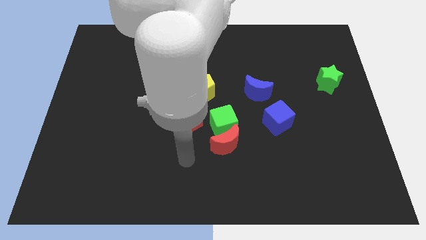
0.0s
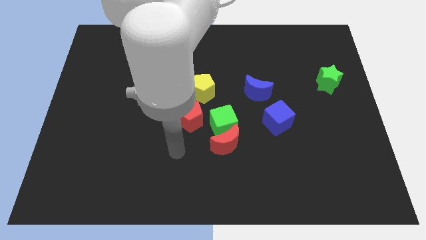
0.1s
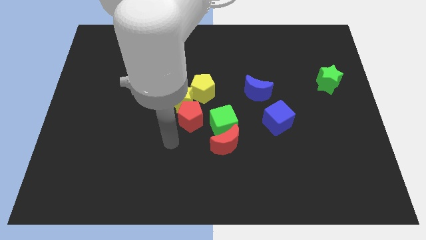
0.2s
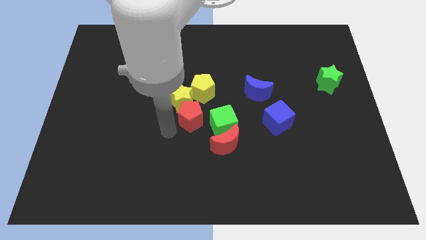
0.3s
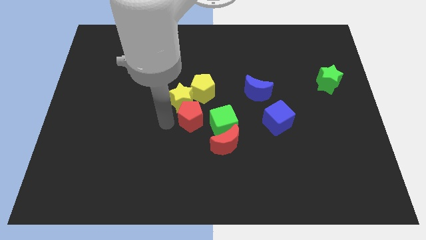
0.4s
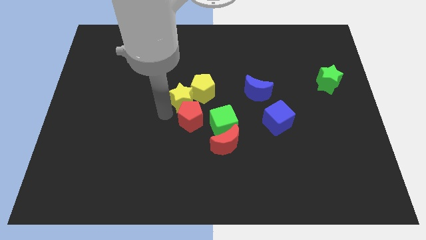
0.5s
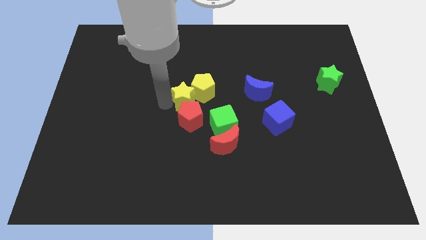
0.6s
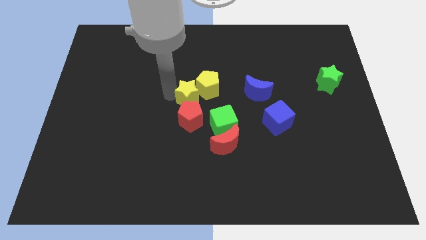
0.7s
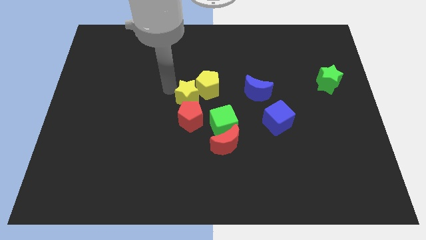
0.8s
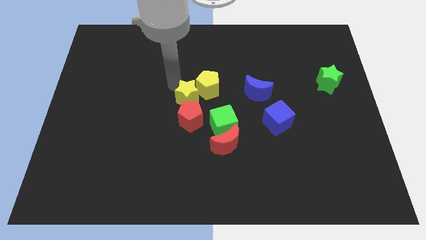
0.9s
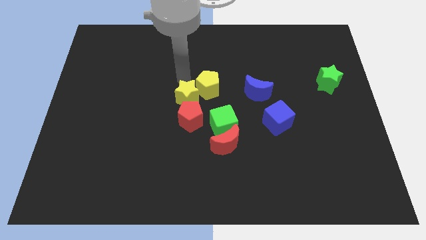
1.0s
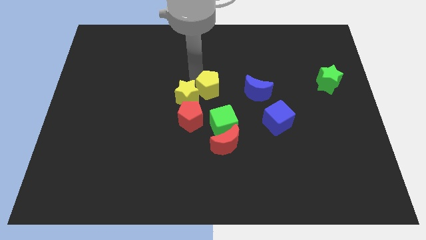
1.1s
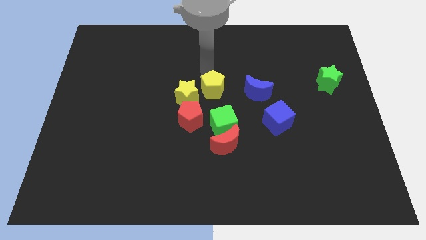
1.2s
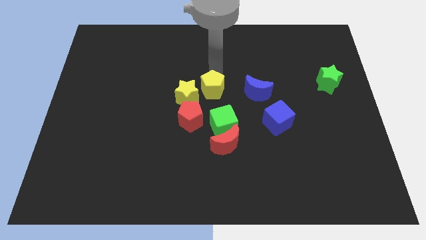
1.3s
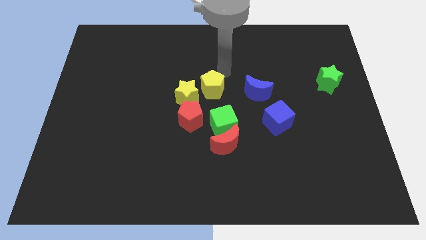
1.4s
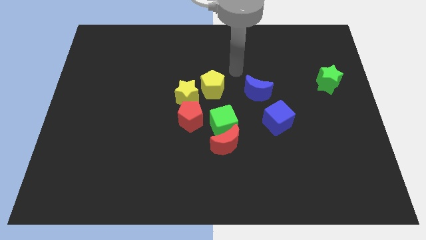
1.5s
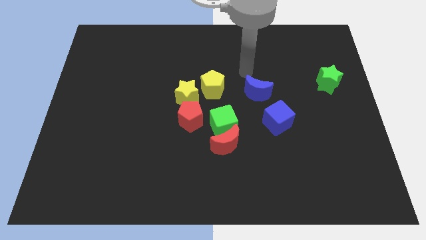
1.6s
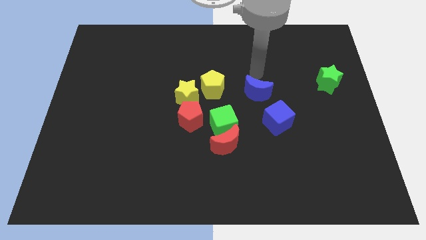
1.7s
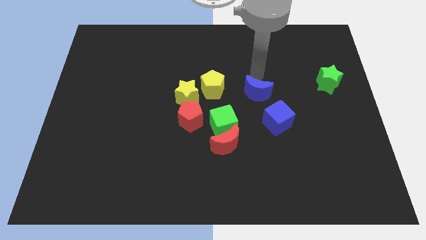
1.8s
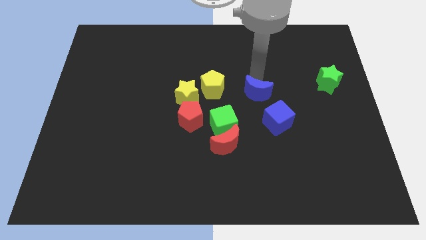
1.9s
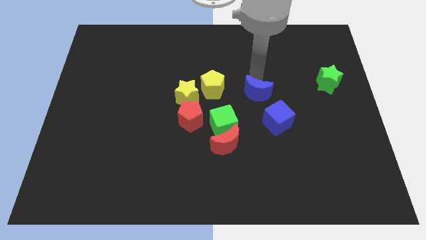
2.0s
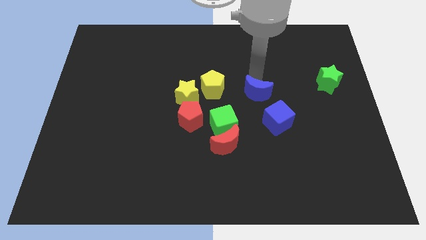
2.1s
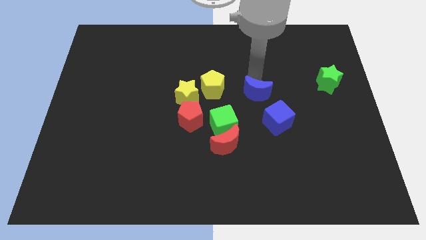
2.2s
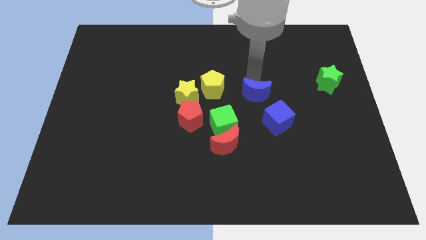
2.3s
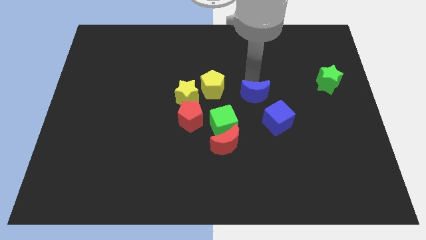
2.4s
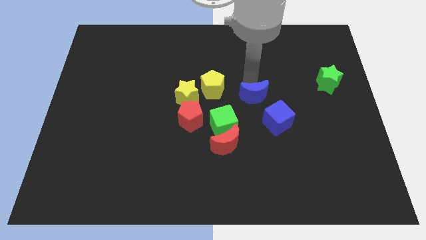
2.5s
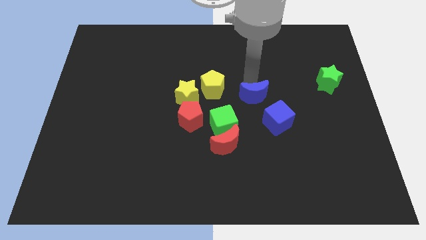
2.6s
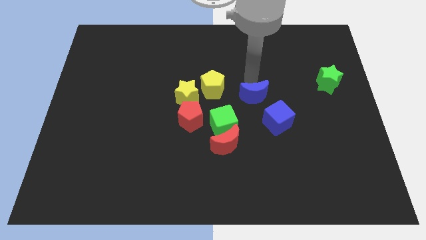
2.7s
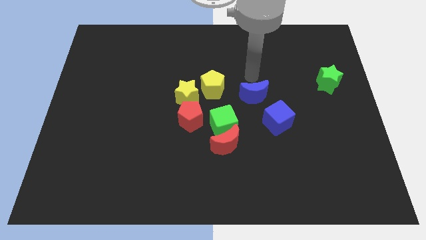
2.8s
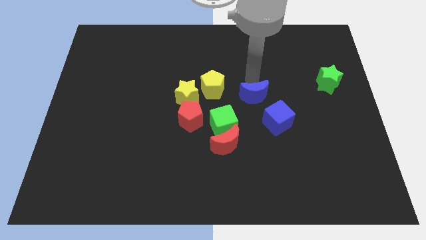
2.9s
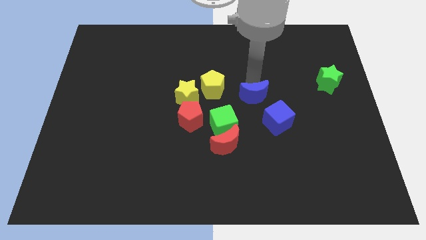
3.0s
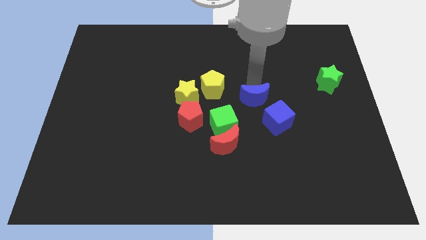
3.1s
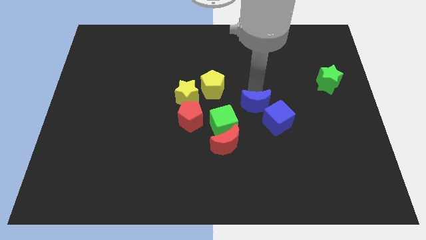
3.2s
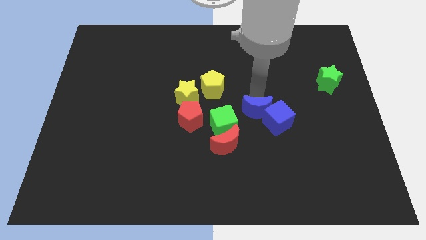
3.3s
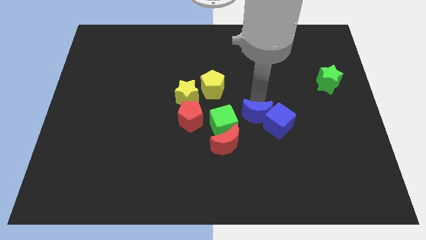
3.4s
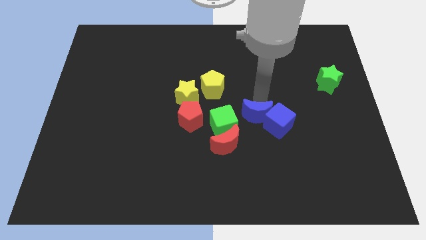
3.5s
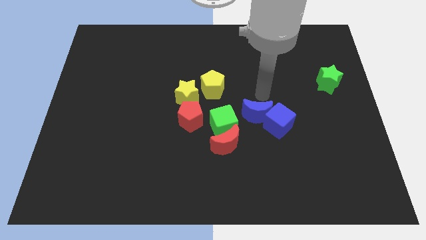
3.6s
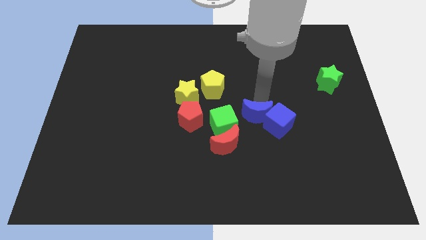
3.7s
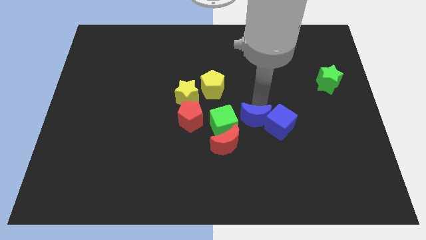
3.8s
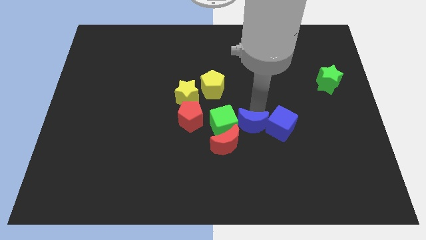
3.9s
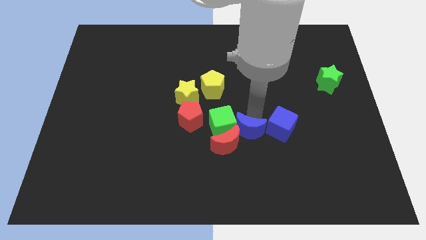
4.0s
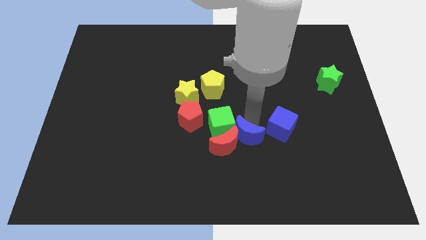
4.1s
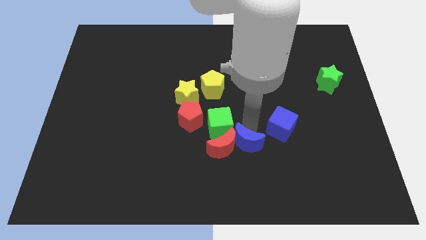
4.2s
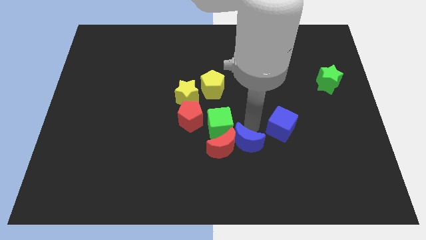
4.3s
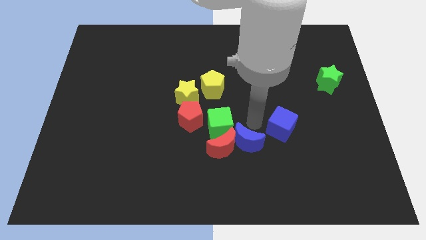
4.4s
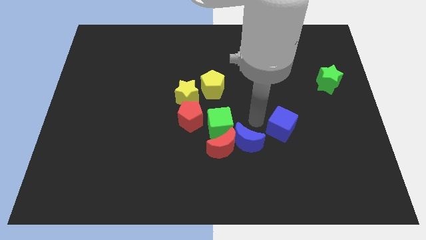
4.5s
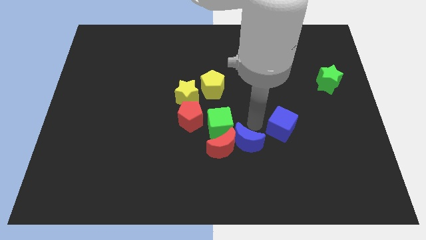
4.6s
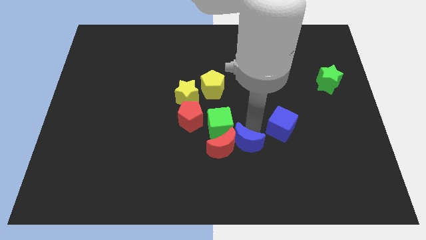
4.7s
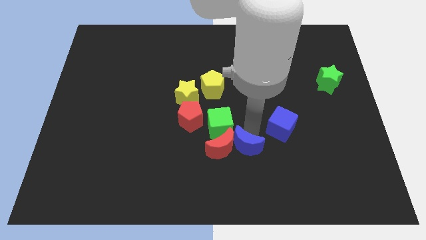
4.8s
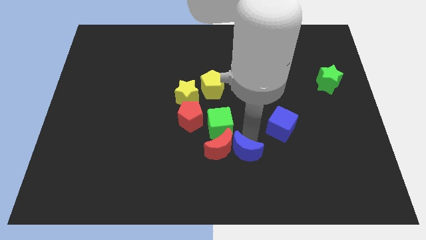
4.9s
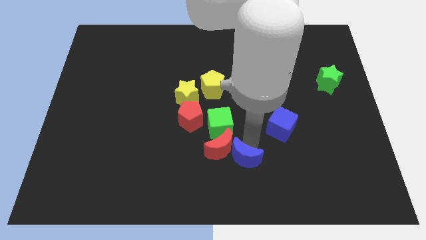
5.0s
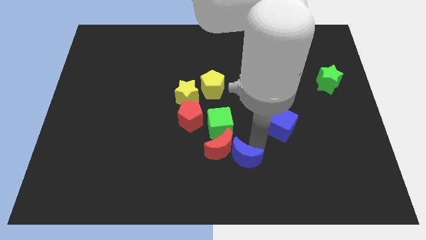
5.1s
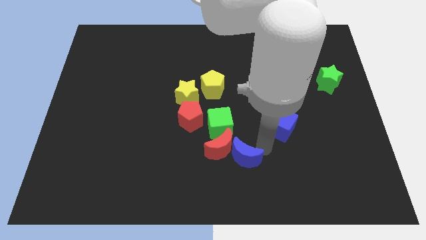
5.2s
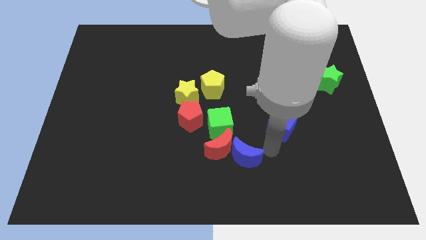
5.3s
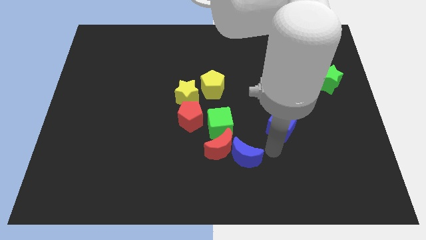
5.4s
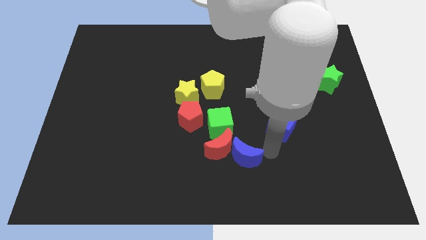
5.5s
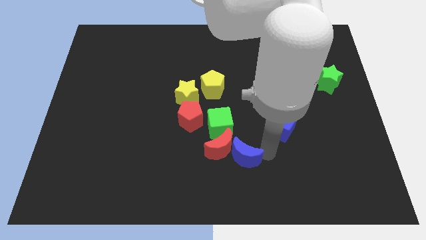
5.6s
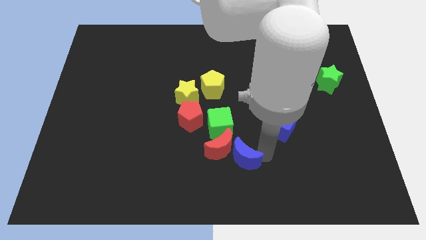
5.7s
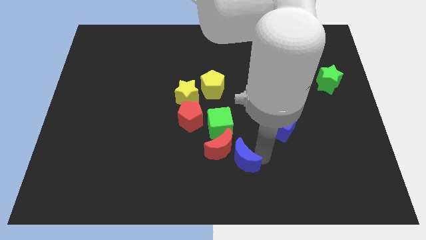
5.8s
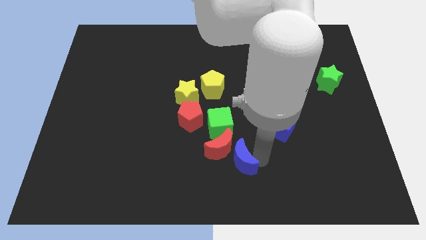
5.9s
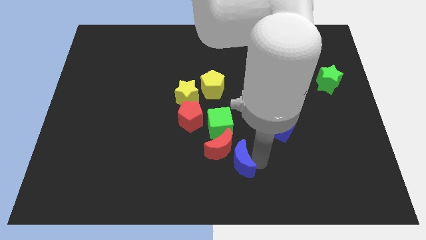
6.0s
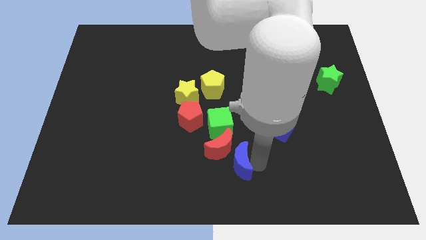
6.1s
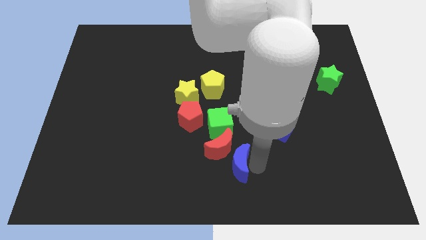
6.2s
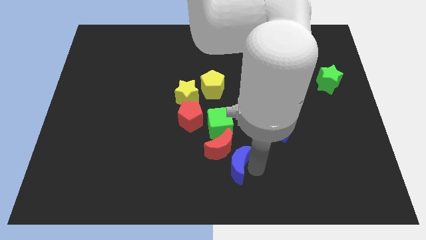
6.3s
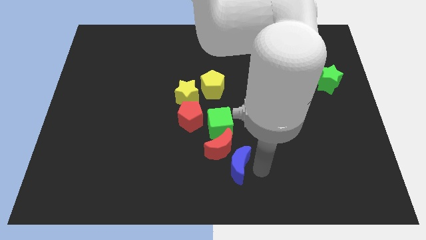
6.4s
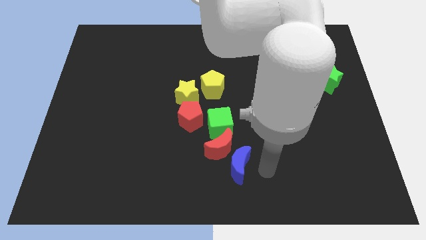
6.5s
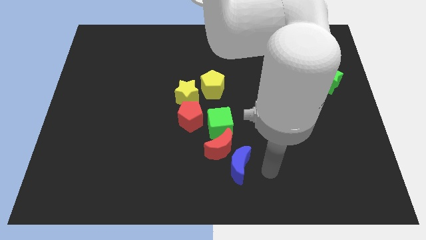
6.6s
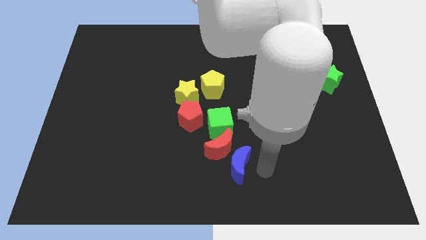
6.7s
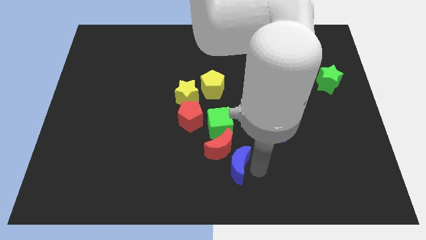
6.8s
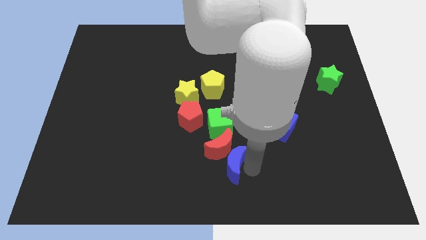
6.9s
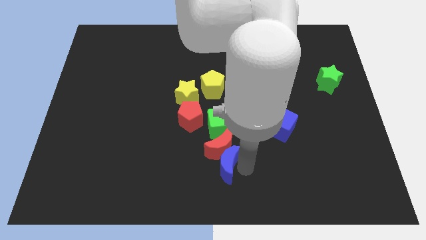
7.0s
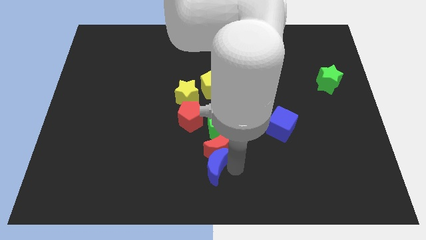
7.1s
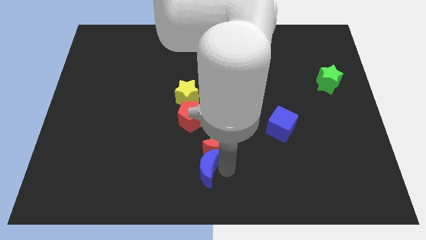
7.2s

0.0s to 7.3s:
put the blue moon to the bottom side of the red pentagon
